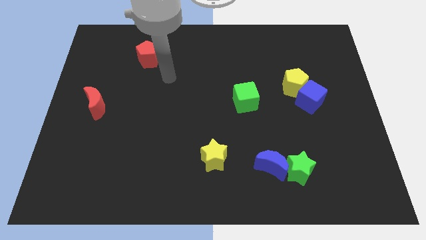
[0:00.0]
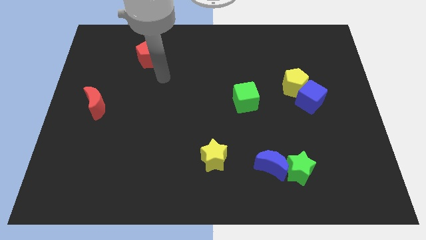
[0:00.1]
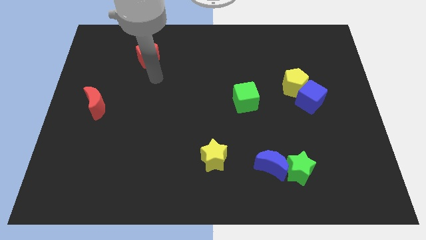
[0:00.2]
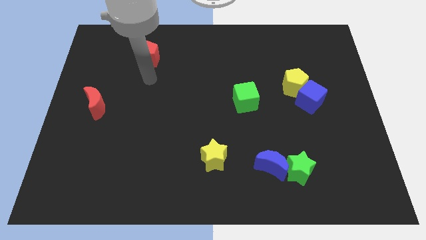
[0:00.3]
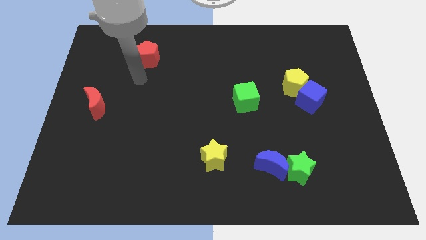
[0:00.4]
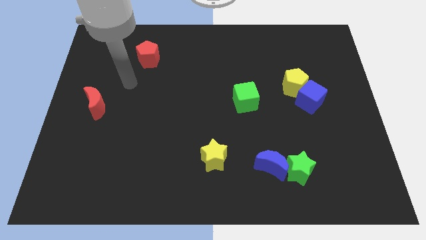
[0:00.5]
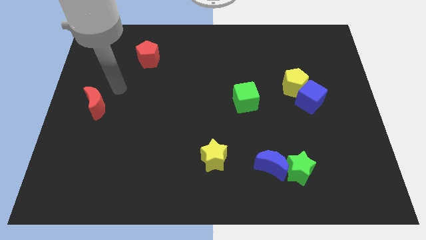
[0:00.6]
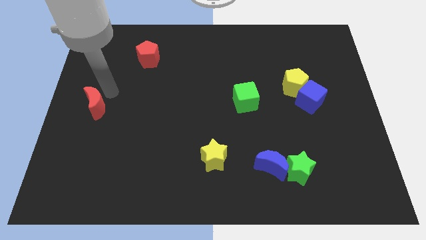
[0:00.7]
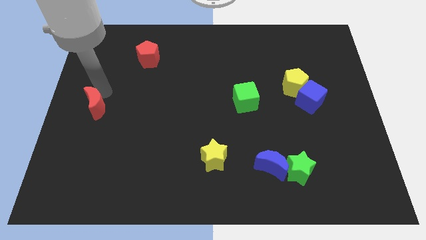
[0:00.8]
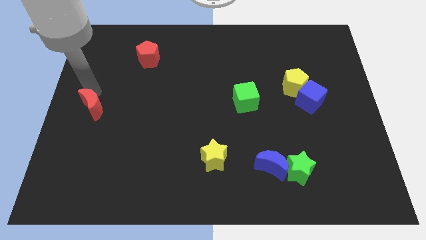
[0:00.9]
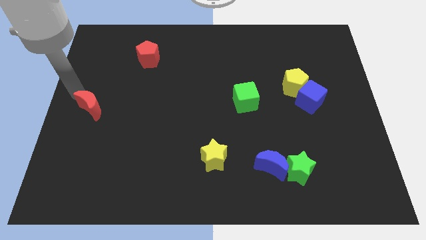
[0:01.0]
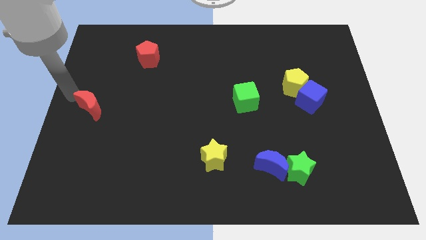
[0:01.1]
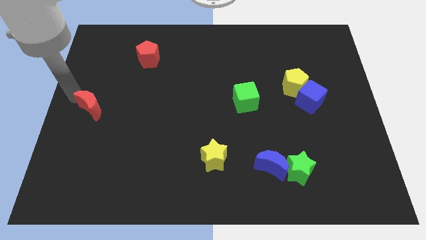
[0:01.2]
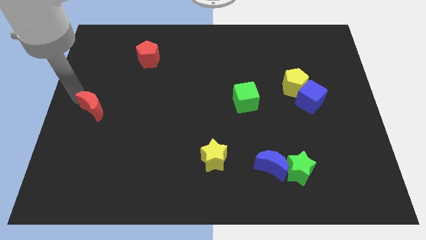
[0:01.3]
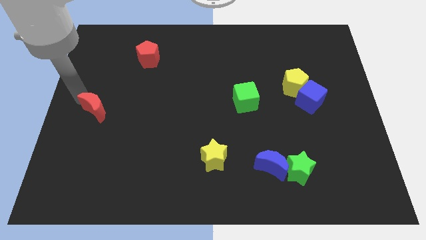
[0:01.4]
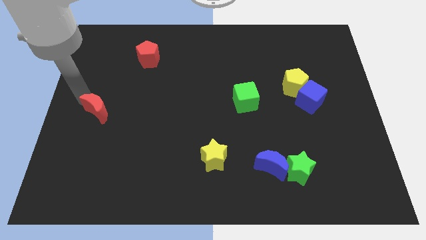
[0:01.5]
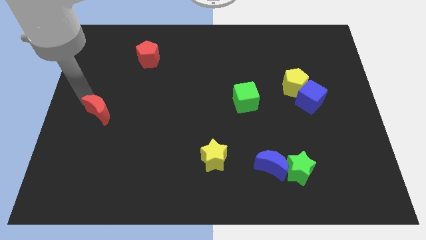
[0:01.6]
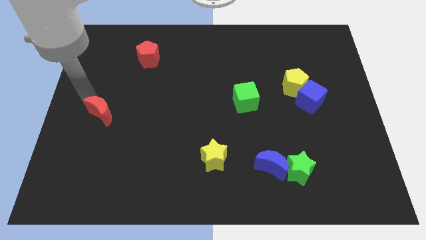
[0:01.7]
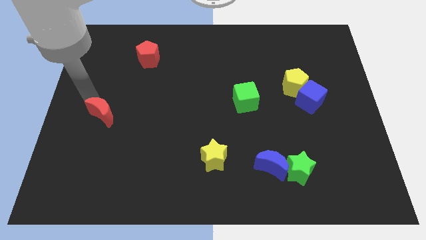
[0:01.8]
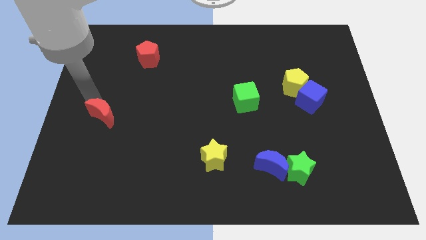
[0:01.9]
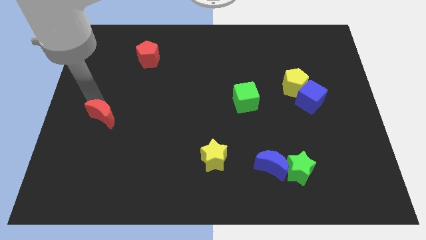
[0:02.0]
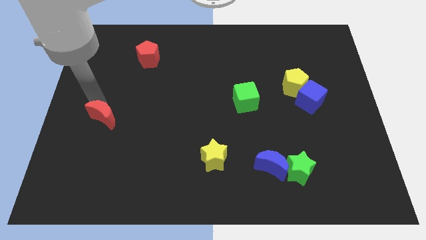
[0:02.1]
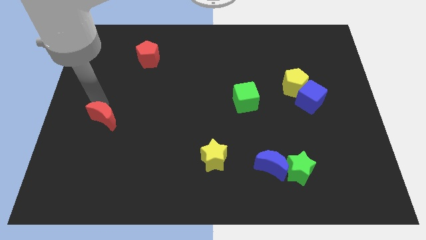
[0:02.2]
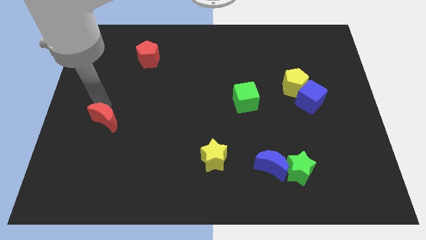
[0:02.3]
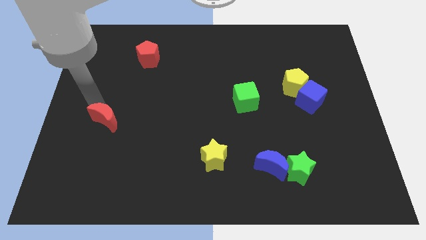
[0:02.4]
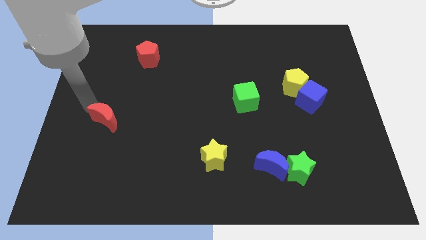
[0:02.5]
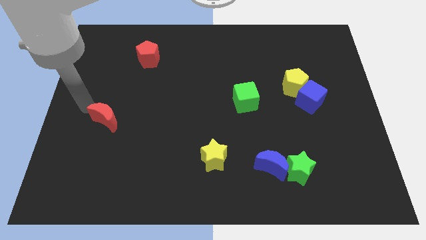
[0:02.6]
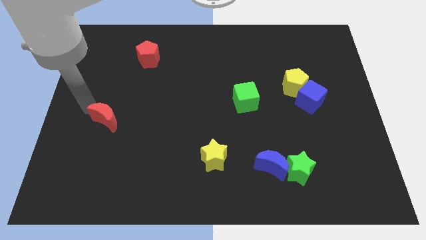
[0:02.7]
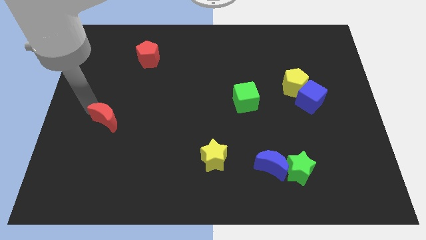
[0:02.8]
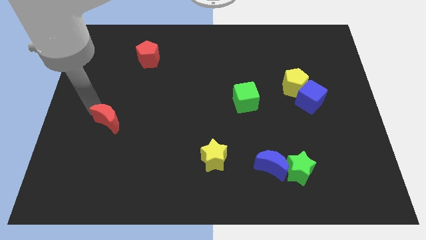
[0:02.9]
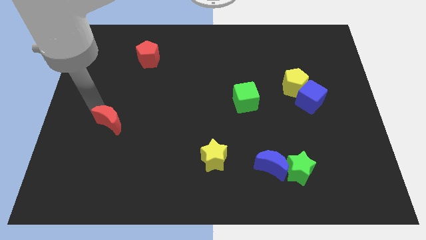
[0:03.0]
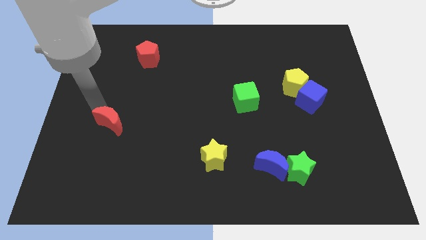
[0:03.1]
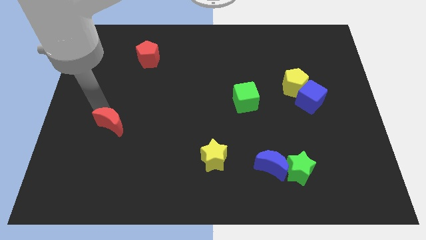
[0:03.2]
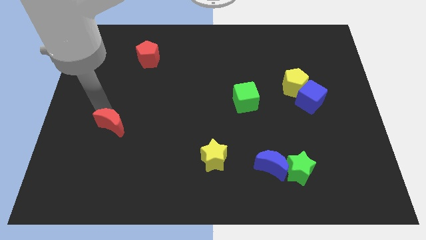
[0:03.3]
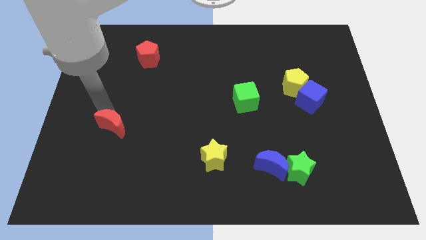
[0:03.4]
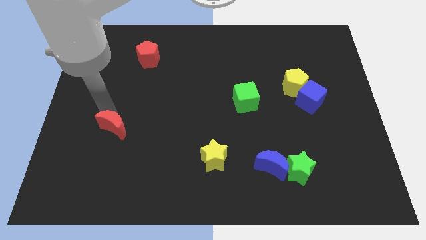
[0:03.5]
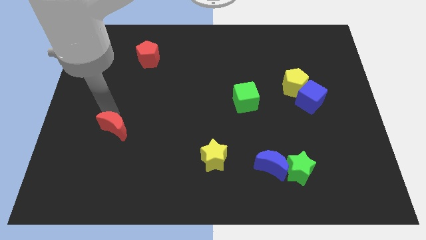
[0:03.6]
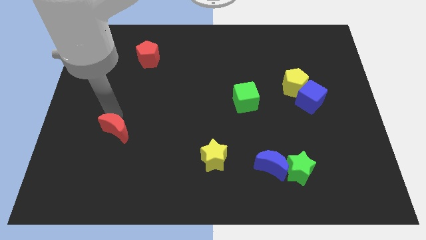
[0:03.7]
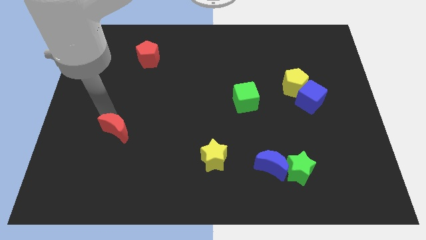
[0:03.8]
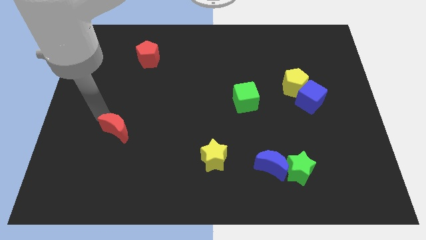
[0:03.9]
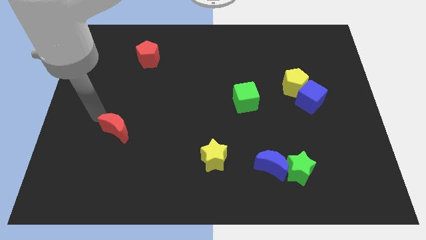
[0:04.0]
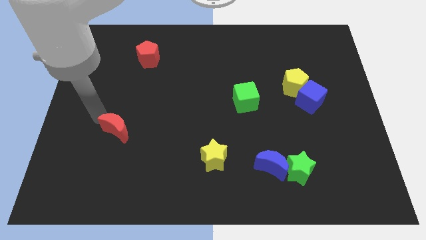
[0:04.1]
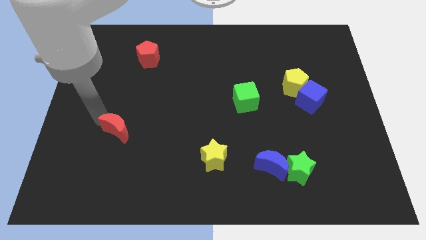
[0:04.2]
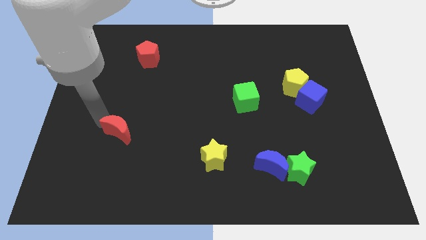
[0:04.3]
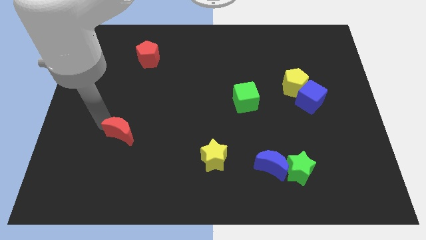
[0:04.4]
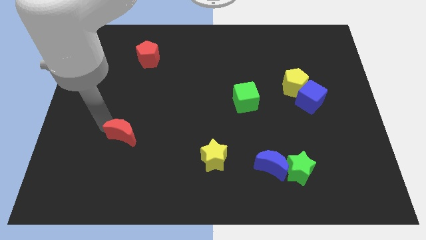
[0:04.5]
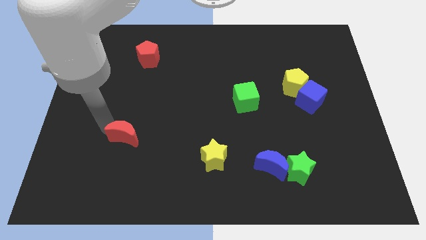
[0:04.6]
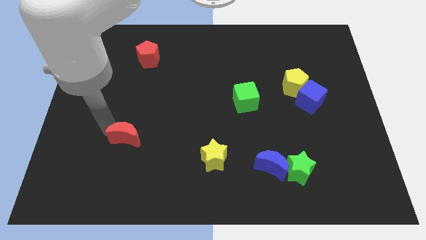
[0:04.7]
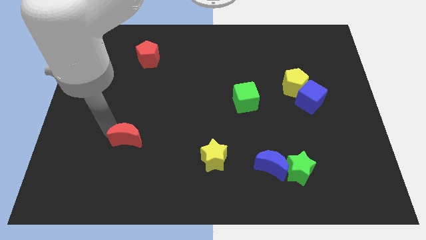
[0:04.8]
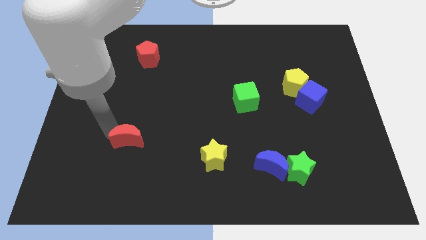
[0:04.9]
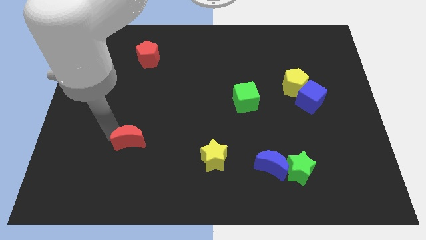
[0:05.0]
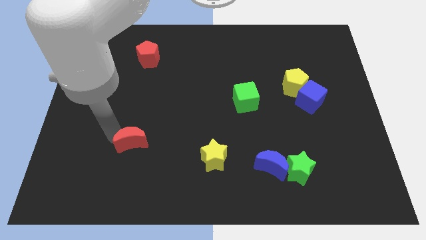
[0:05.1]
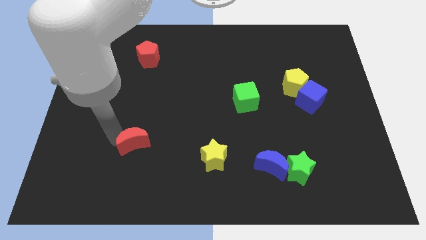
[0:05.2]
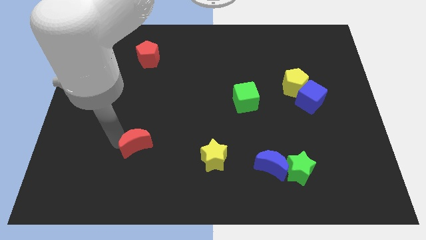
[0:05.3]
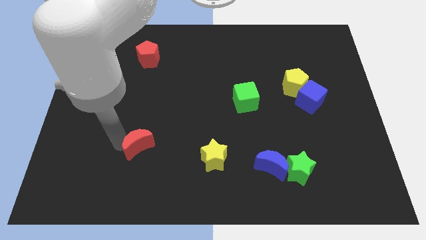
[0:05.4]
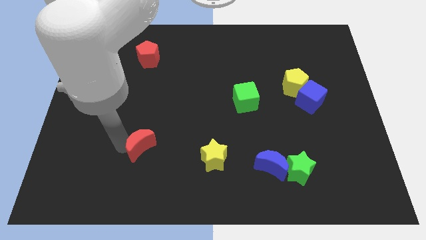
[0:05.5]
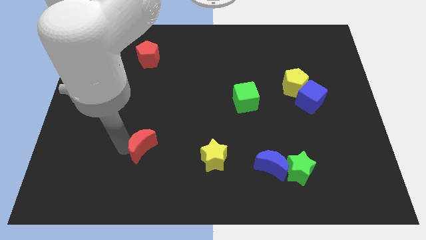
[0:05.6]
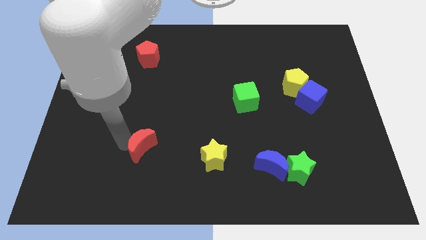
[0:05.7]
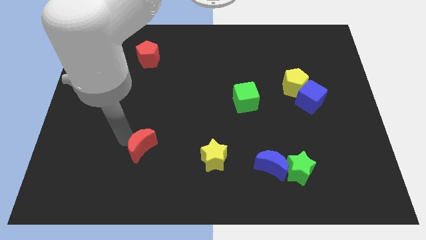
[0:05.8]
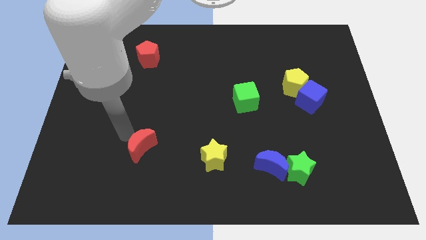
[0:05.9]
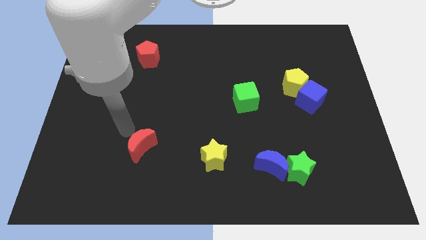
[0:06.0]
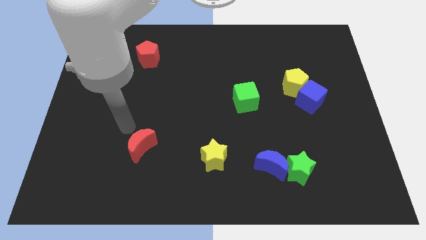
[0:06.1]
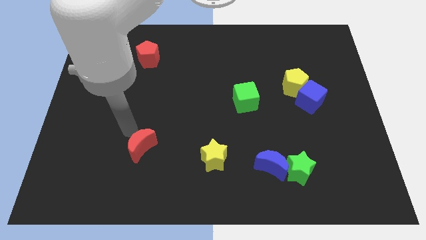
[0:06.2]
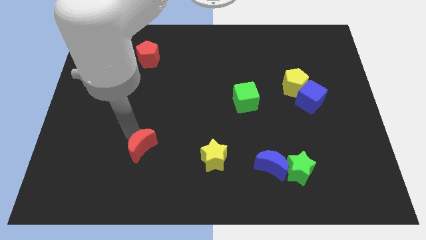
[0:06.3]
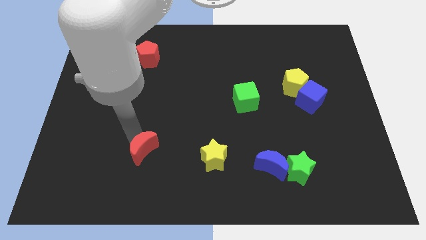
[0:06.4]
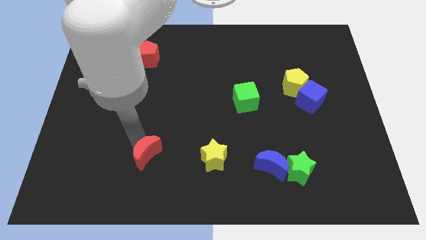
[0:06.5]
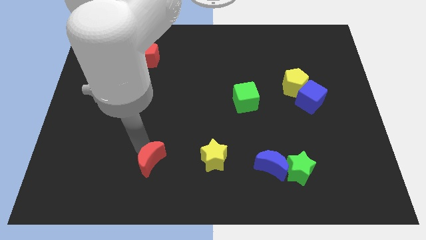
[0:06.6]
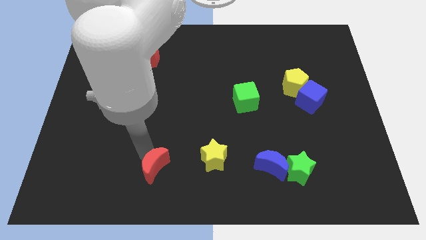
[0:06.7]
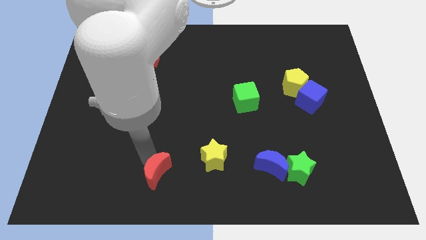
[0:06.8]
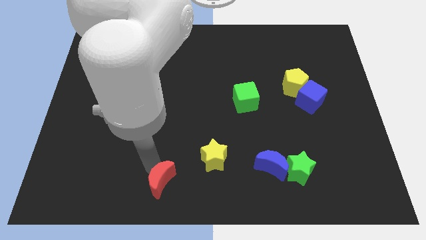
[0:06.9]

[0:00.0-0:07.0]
slide the red moon to the bottom side
